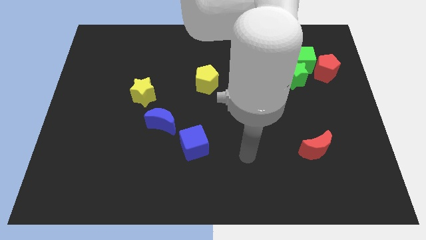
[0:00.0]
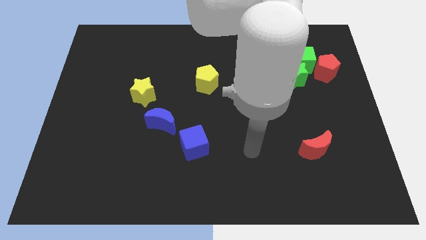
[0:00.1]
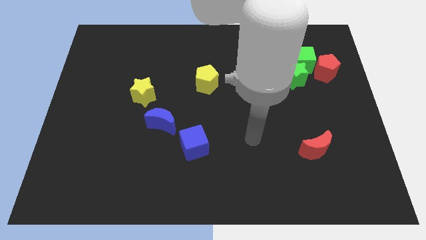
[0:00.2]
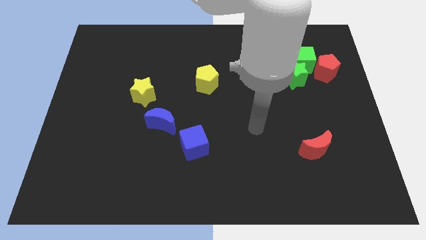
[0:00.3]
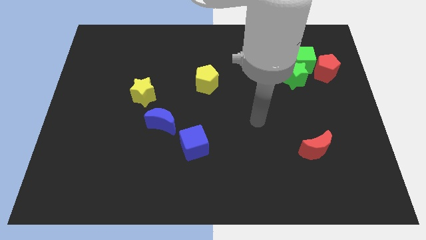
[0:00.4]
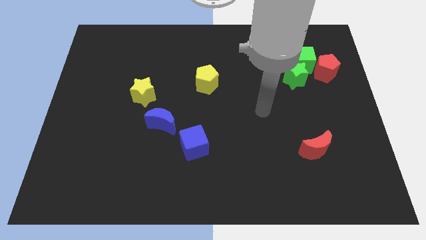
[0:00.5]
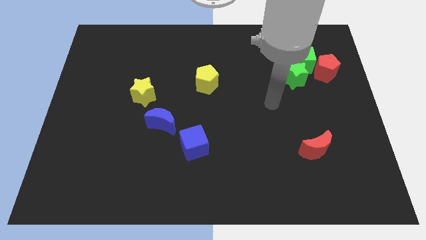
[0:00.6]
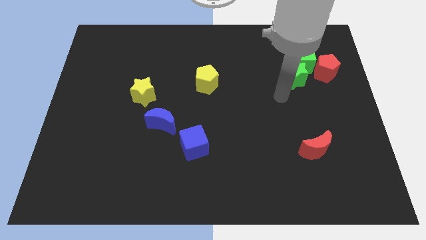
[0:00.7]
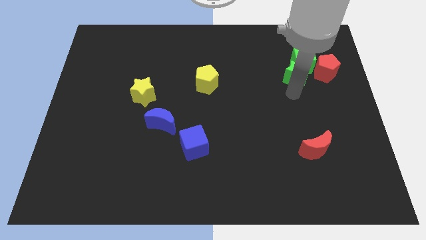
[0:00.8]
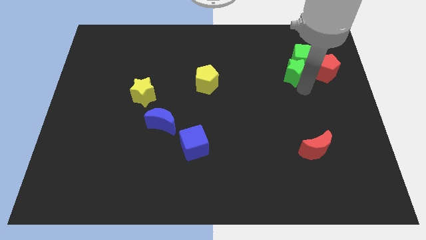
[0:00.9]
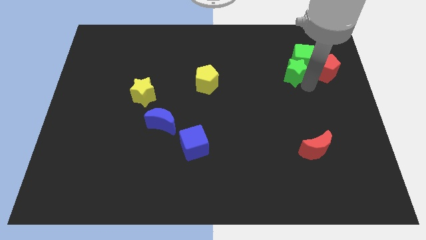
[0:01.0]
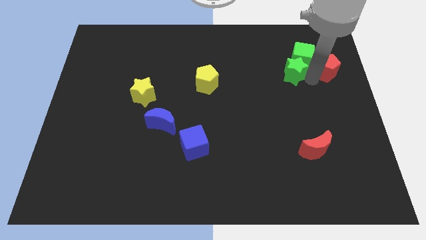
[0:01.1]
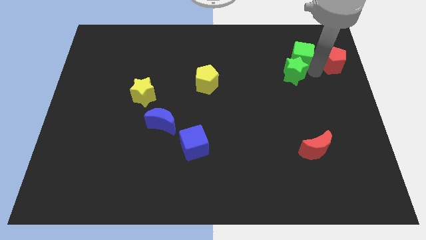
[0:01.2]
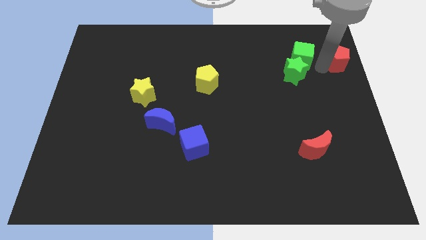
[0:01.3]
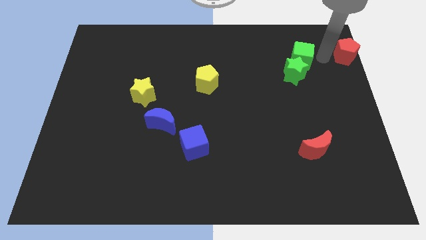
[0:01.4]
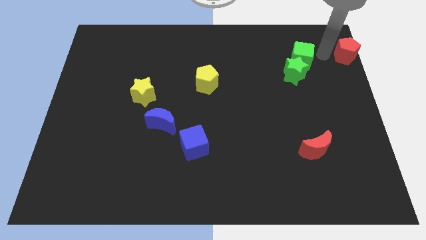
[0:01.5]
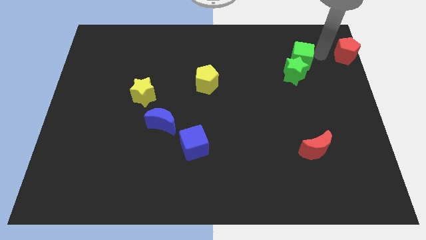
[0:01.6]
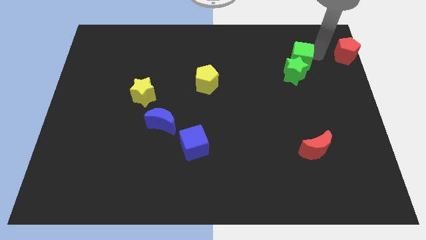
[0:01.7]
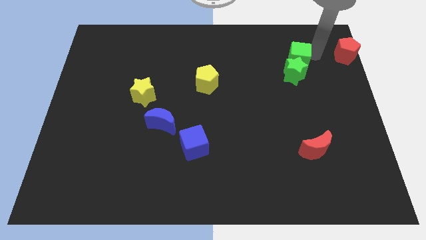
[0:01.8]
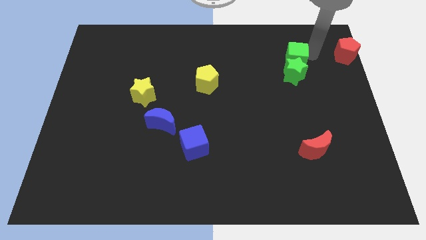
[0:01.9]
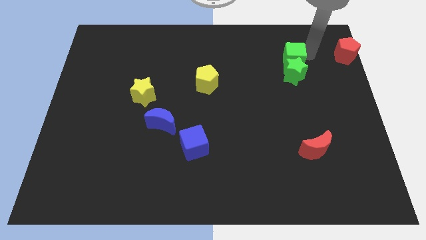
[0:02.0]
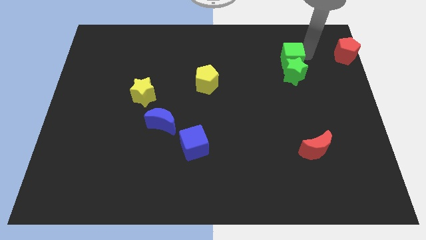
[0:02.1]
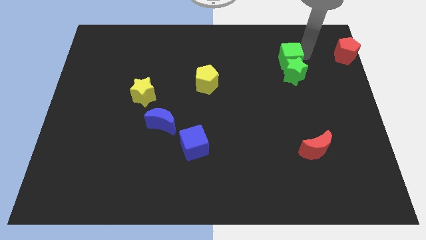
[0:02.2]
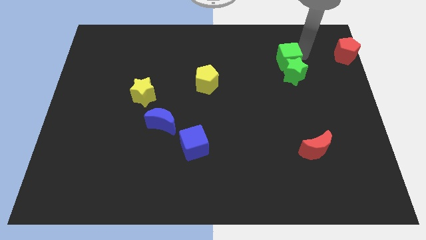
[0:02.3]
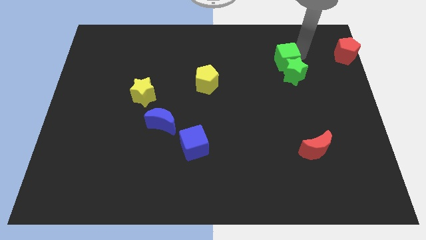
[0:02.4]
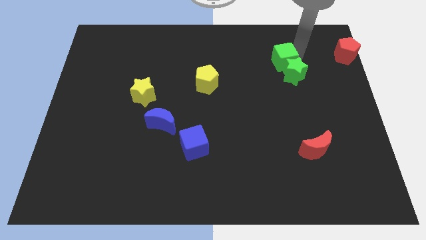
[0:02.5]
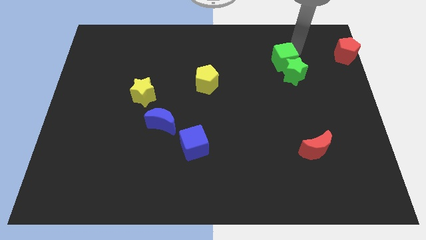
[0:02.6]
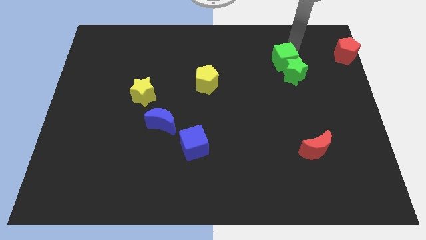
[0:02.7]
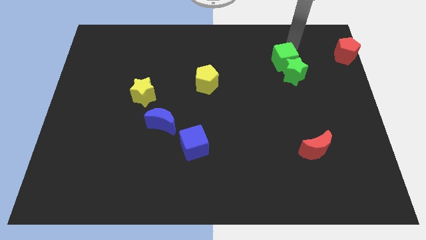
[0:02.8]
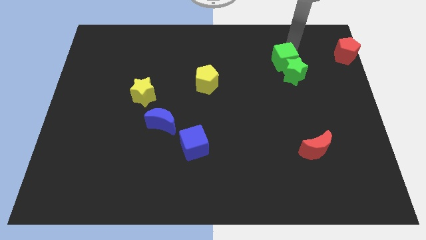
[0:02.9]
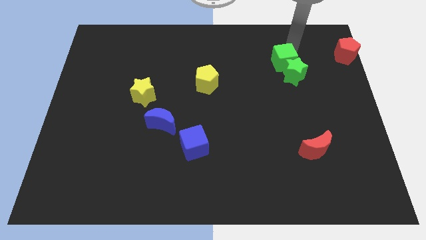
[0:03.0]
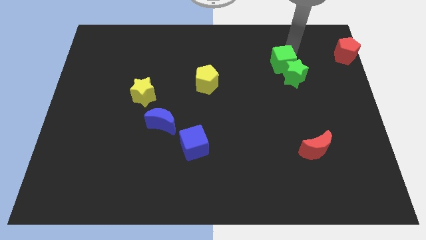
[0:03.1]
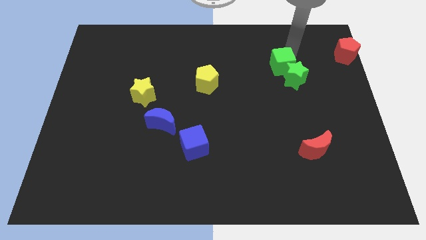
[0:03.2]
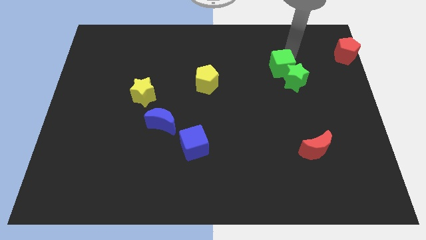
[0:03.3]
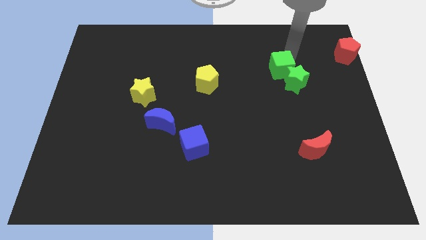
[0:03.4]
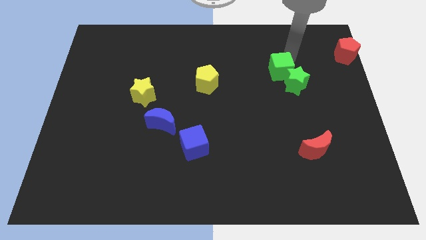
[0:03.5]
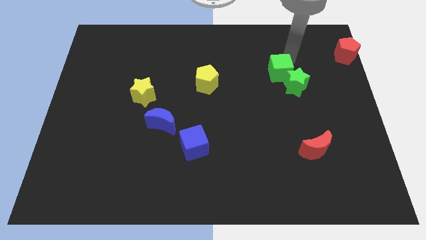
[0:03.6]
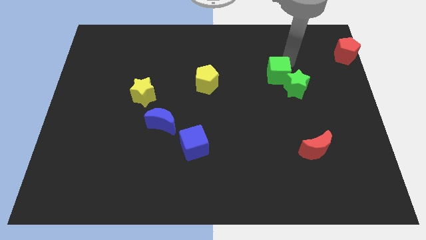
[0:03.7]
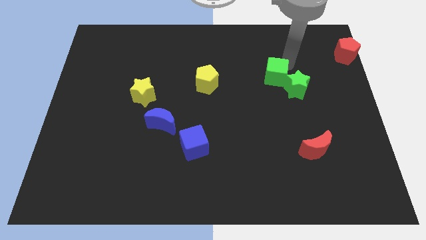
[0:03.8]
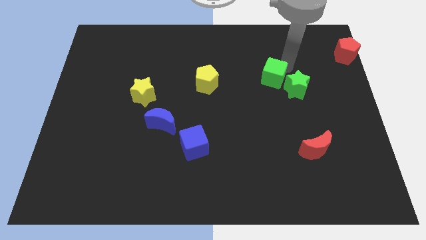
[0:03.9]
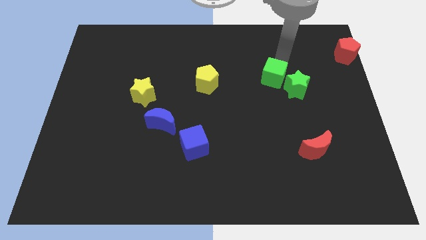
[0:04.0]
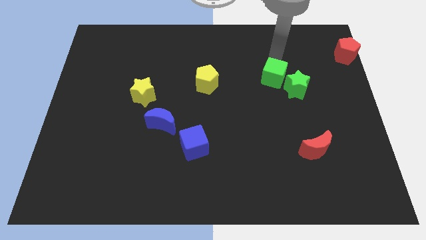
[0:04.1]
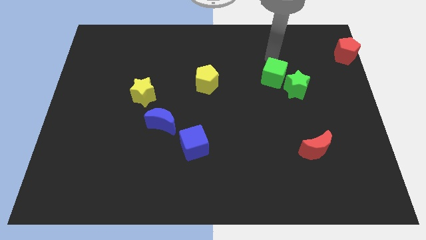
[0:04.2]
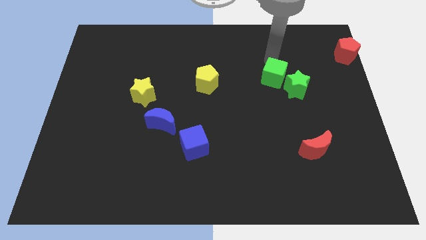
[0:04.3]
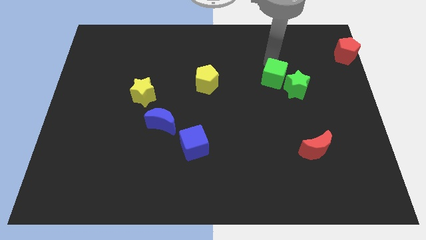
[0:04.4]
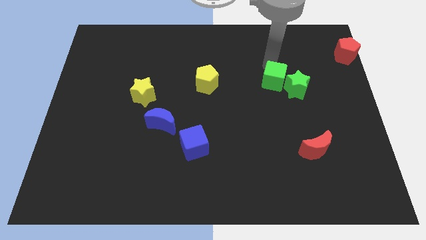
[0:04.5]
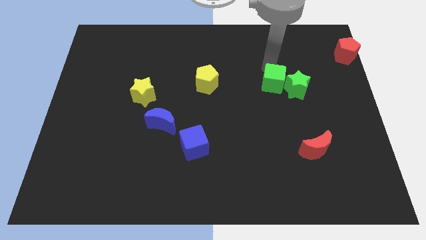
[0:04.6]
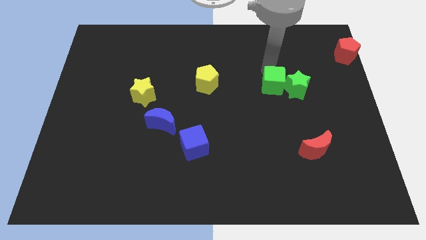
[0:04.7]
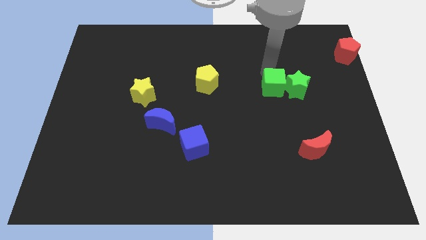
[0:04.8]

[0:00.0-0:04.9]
slide the green cube diagonally down and to the left of the green star

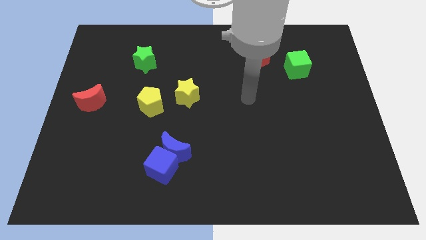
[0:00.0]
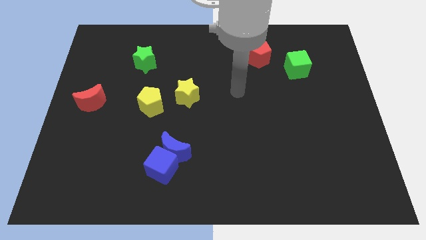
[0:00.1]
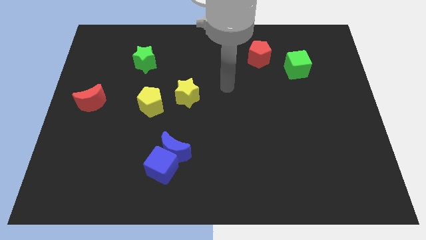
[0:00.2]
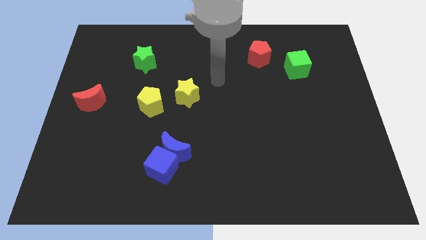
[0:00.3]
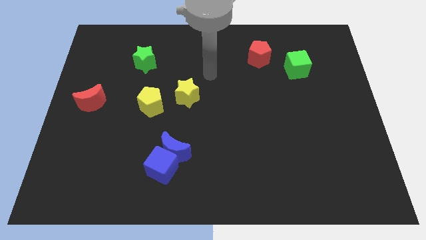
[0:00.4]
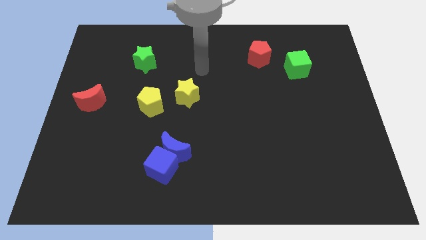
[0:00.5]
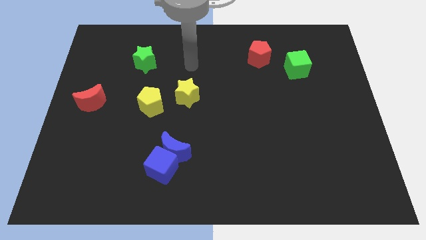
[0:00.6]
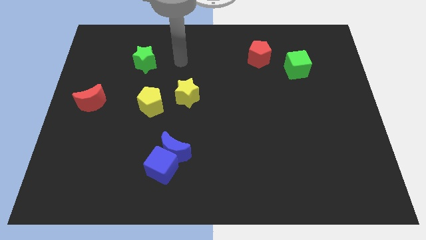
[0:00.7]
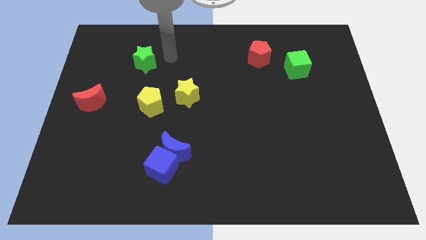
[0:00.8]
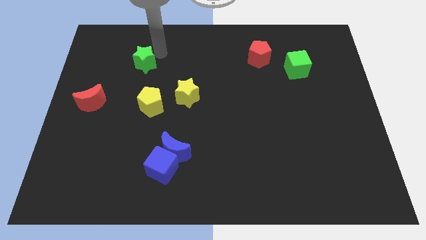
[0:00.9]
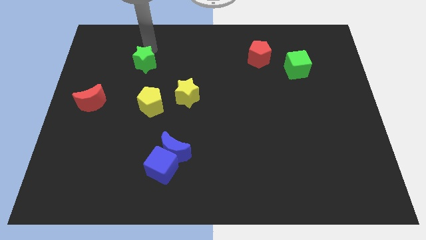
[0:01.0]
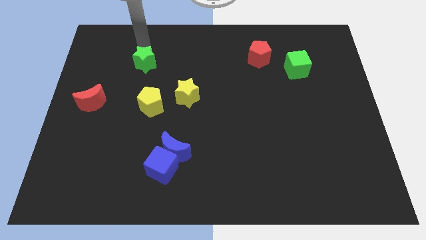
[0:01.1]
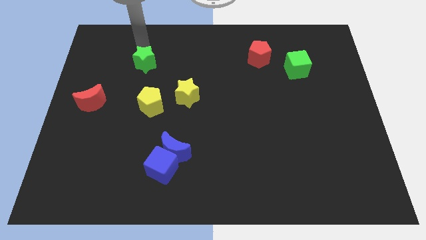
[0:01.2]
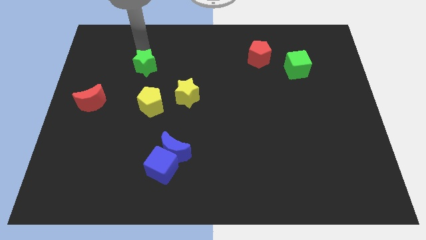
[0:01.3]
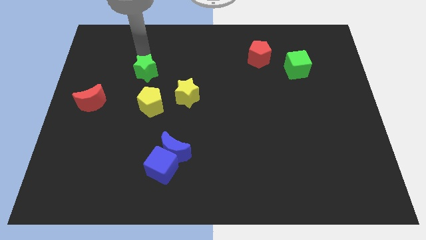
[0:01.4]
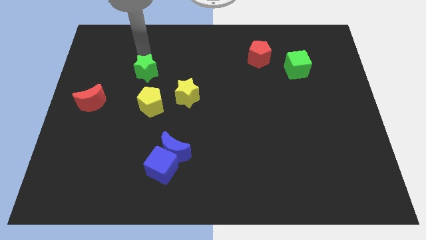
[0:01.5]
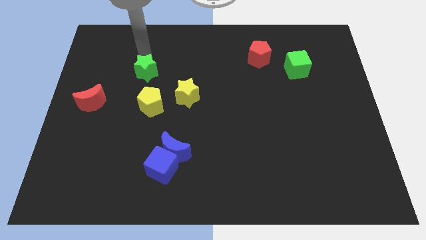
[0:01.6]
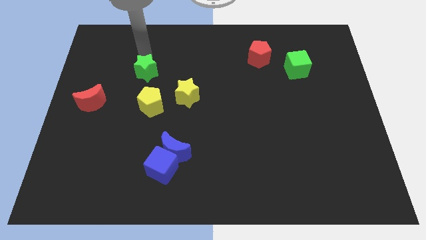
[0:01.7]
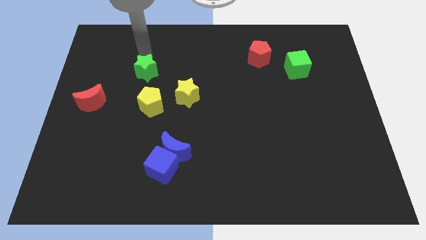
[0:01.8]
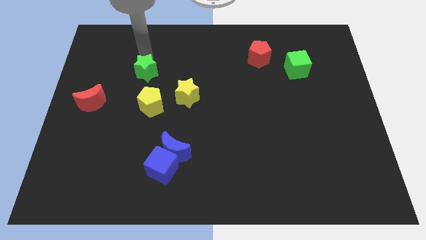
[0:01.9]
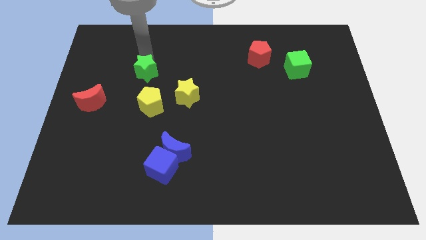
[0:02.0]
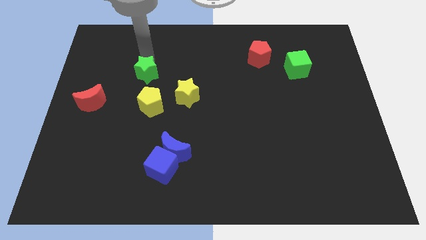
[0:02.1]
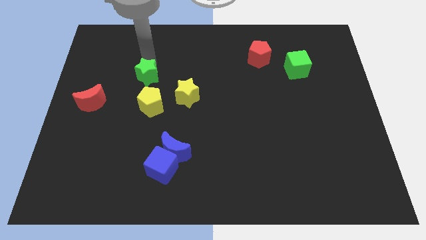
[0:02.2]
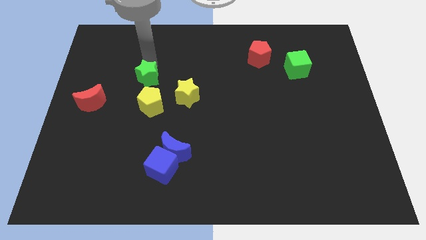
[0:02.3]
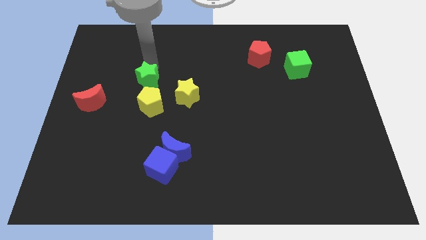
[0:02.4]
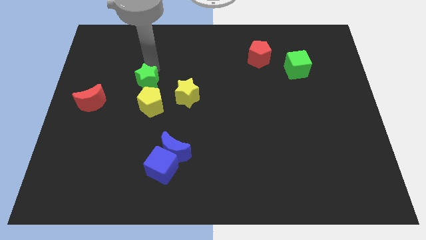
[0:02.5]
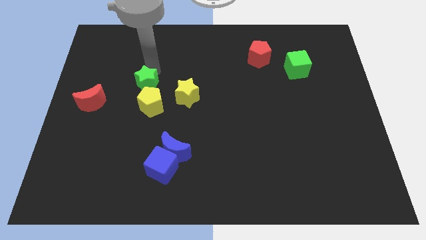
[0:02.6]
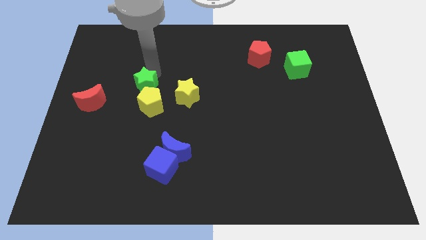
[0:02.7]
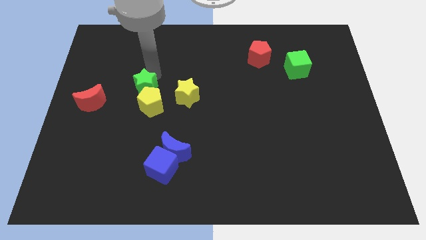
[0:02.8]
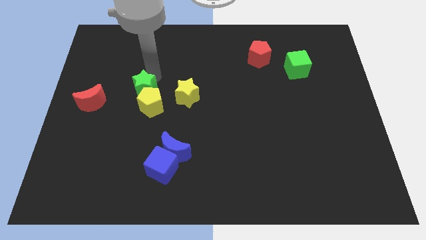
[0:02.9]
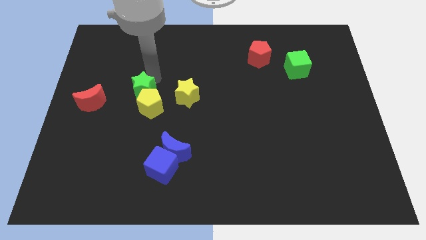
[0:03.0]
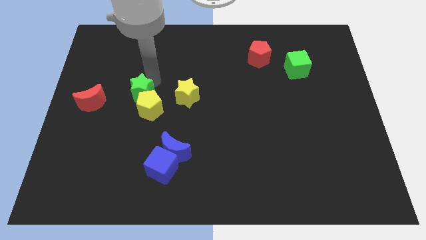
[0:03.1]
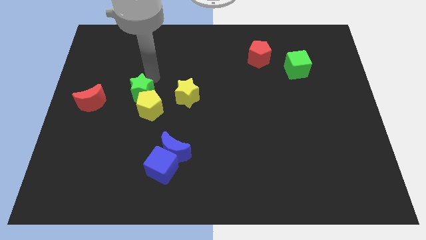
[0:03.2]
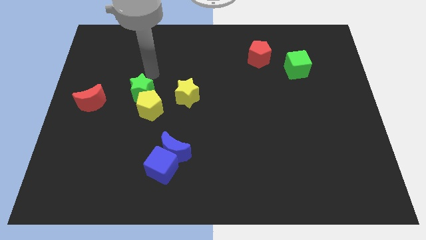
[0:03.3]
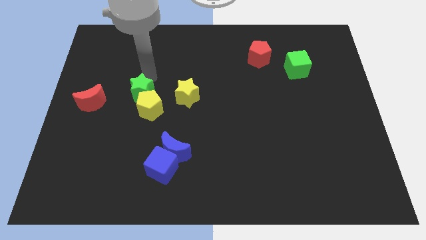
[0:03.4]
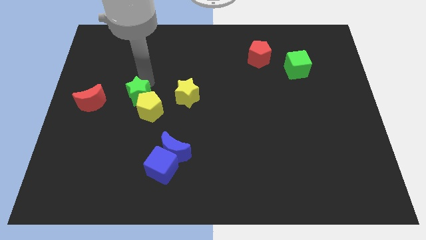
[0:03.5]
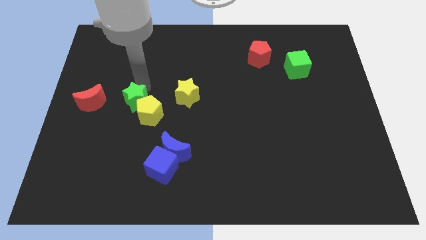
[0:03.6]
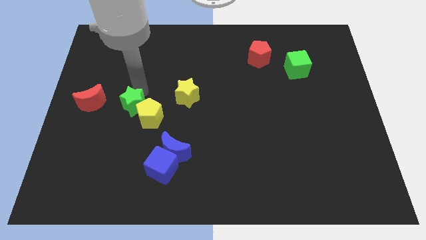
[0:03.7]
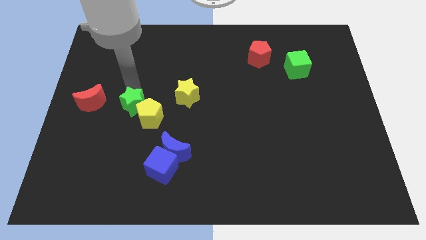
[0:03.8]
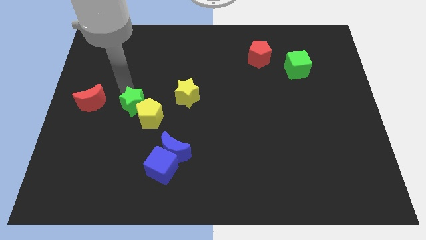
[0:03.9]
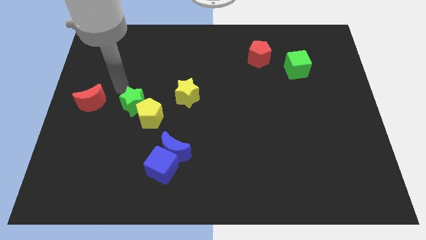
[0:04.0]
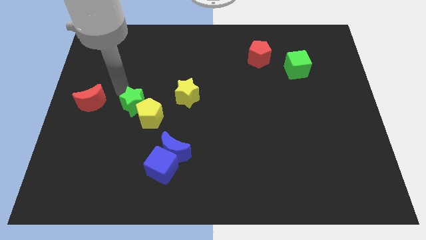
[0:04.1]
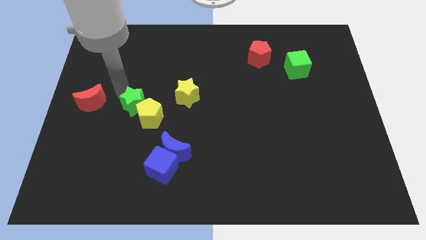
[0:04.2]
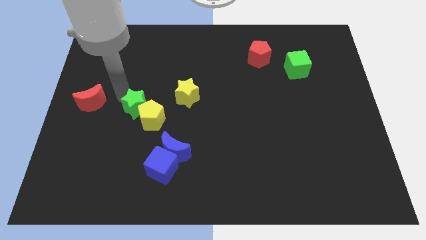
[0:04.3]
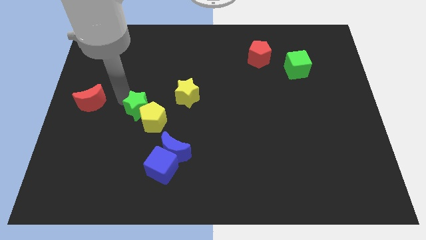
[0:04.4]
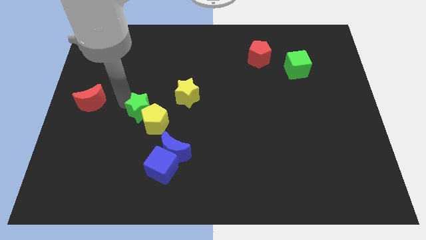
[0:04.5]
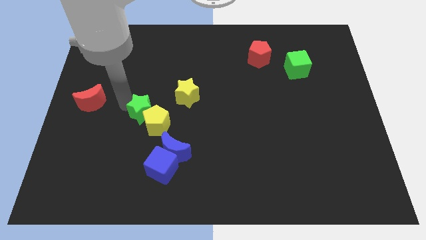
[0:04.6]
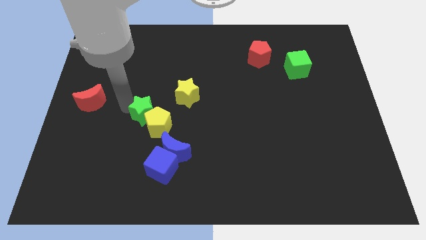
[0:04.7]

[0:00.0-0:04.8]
push the green star to the top left of the blue moon
